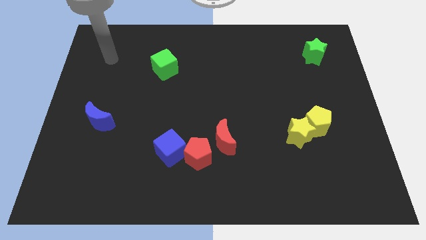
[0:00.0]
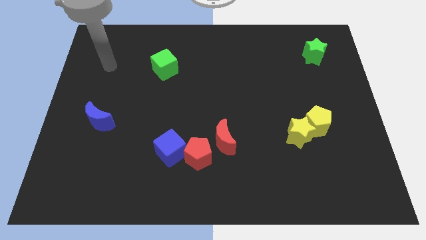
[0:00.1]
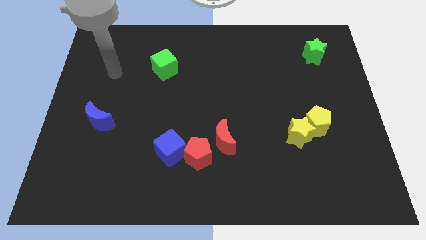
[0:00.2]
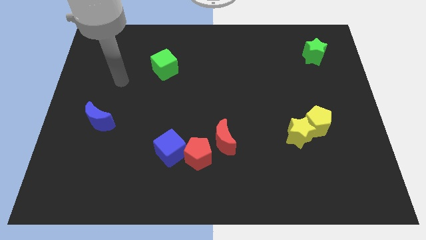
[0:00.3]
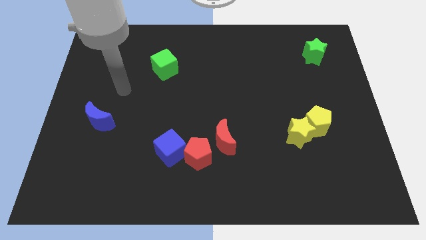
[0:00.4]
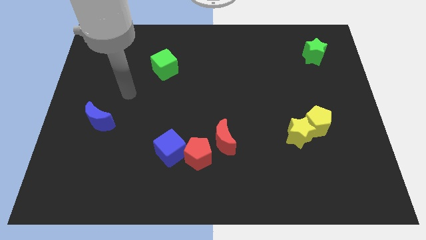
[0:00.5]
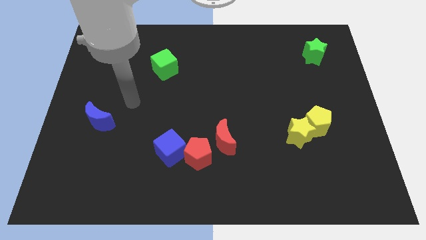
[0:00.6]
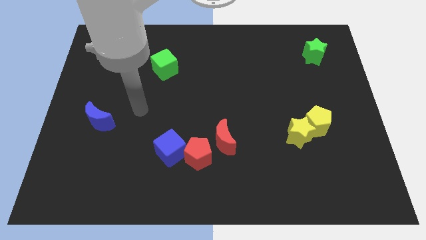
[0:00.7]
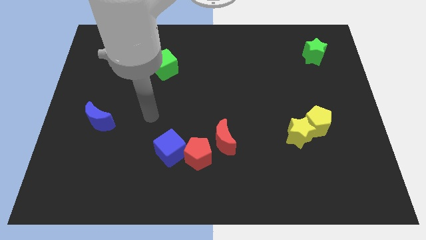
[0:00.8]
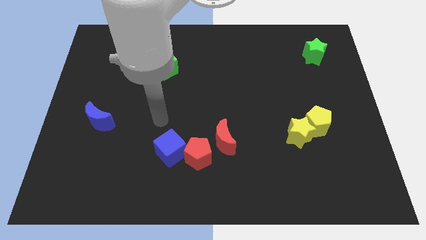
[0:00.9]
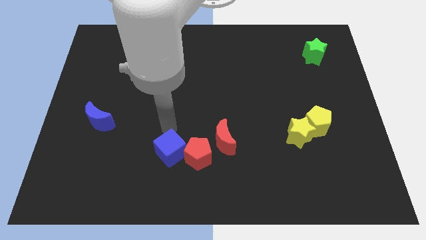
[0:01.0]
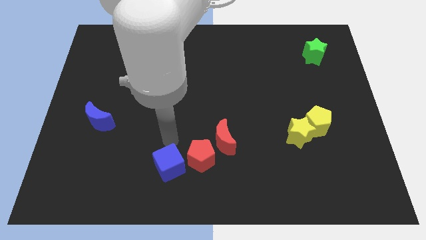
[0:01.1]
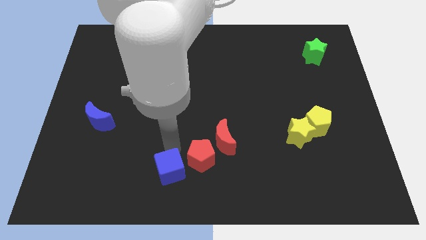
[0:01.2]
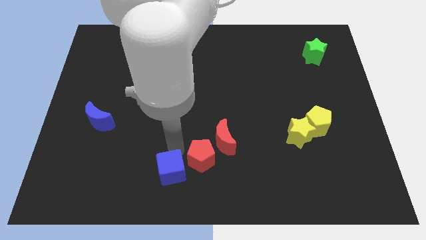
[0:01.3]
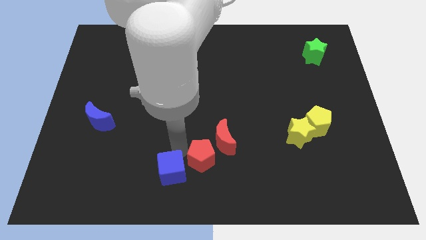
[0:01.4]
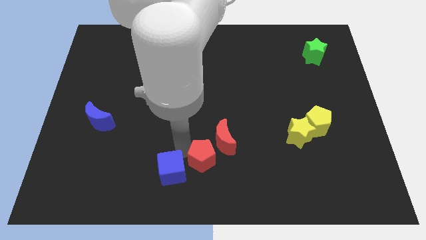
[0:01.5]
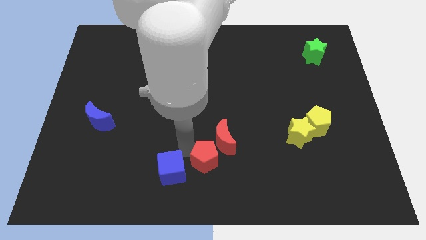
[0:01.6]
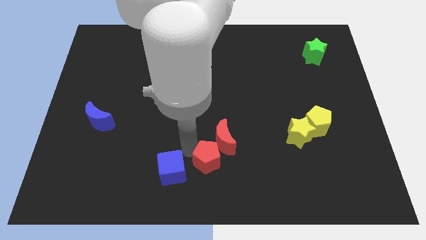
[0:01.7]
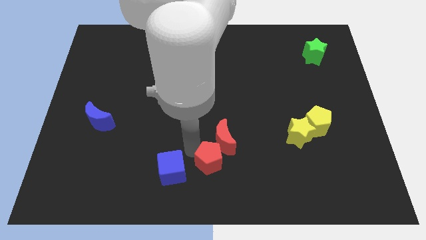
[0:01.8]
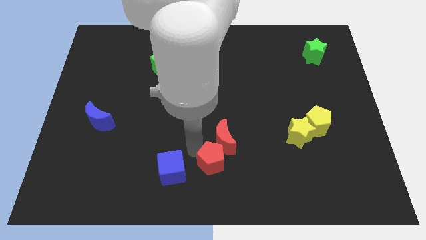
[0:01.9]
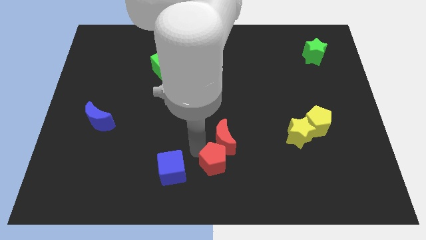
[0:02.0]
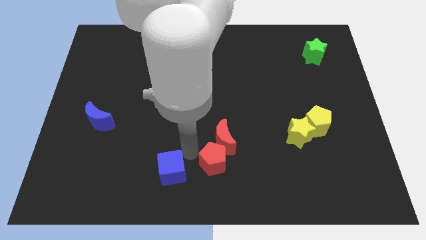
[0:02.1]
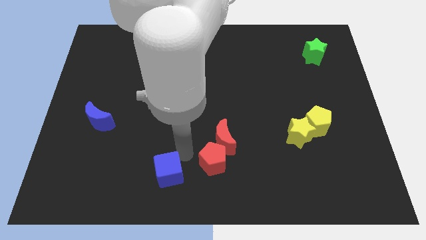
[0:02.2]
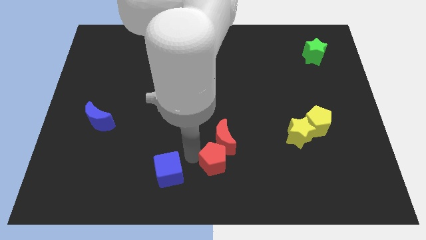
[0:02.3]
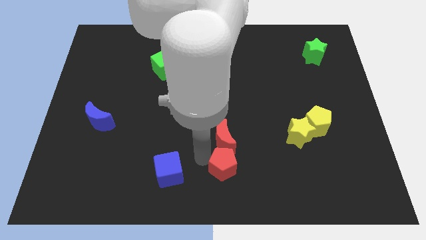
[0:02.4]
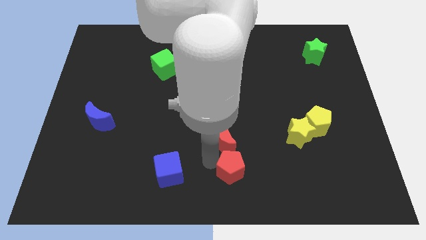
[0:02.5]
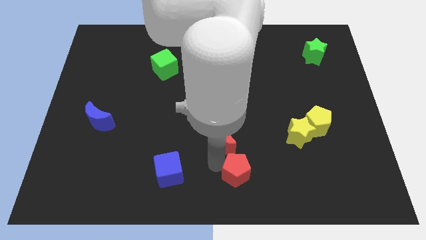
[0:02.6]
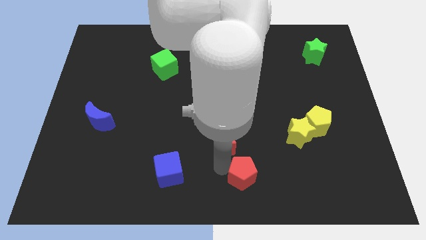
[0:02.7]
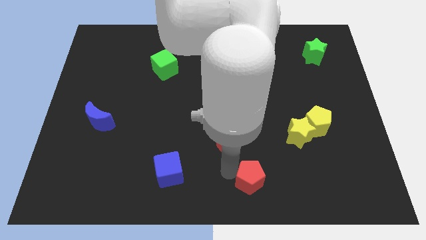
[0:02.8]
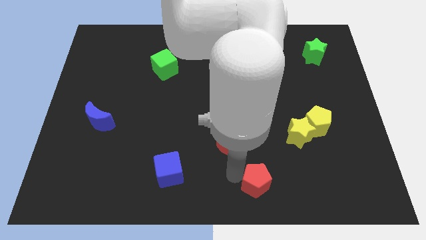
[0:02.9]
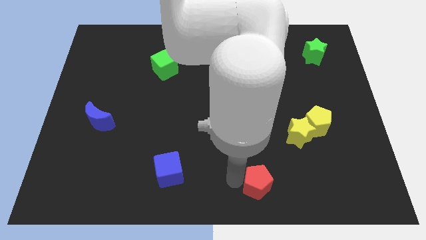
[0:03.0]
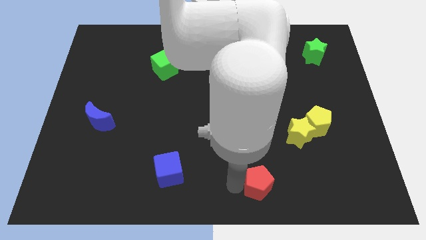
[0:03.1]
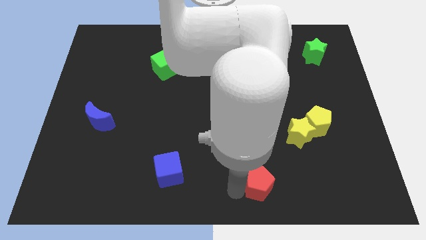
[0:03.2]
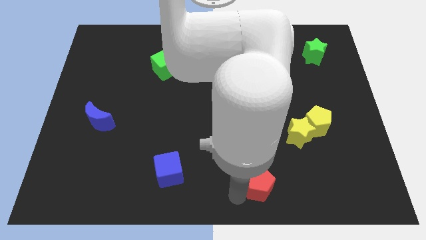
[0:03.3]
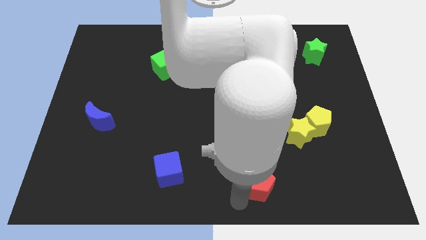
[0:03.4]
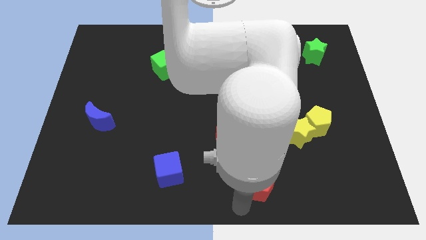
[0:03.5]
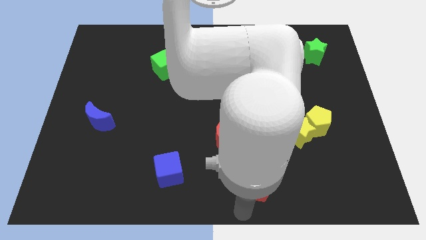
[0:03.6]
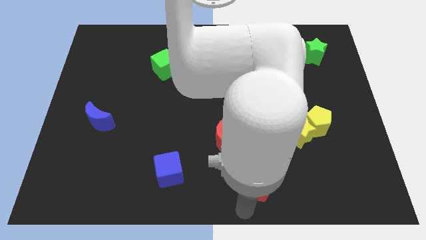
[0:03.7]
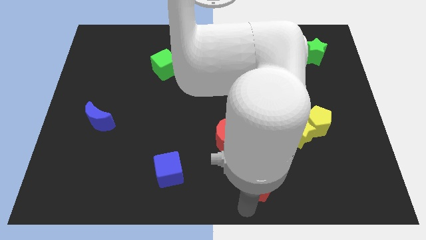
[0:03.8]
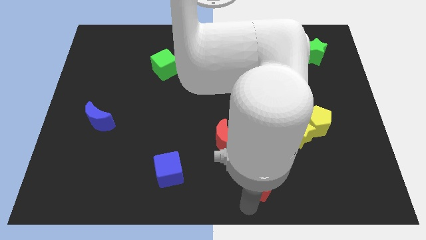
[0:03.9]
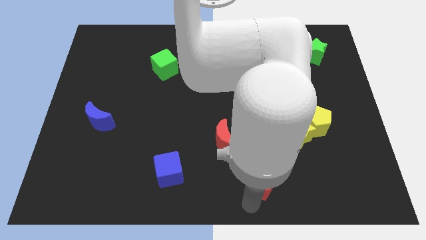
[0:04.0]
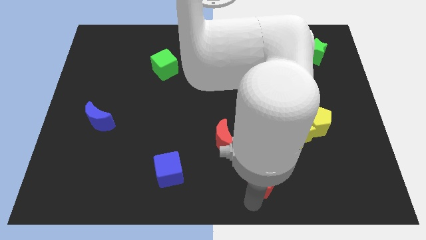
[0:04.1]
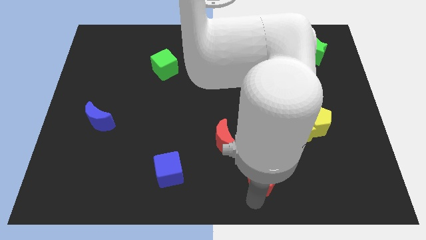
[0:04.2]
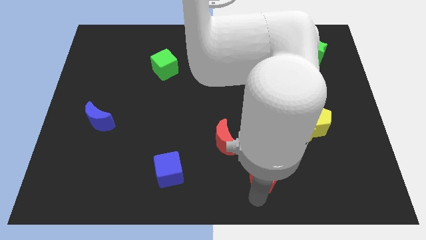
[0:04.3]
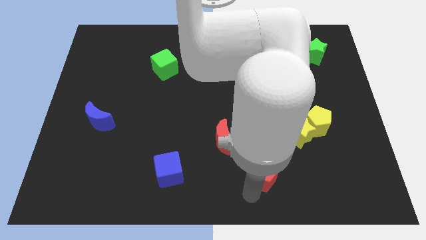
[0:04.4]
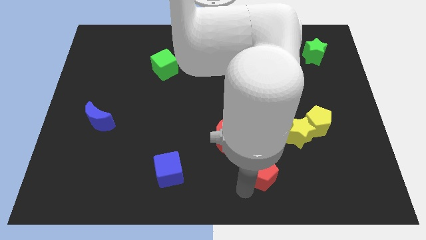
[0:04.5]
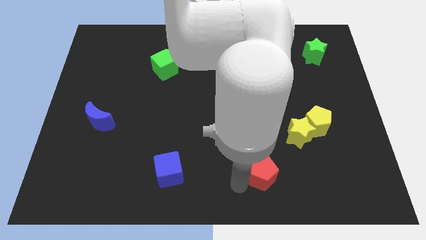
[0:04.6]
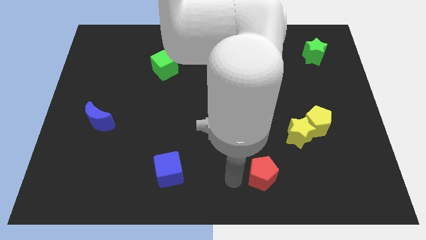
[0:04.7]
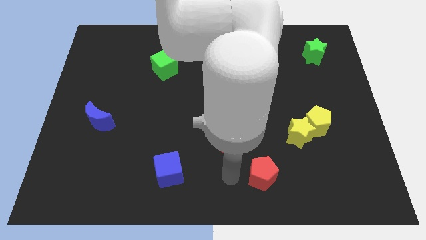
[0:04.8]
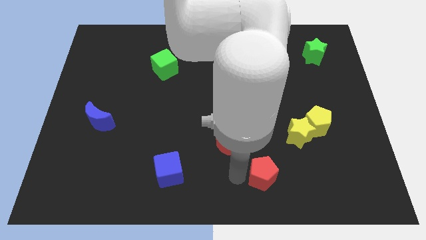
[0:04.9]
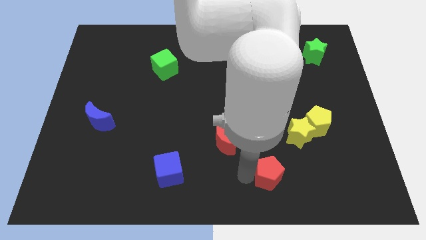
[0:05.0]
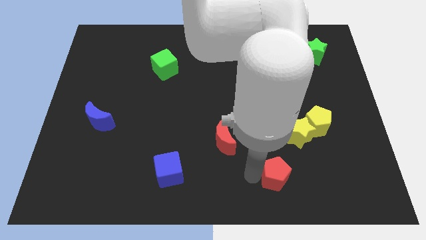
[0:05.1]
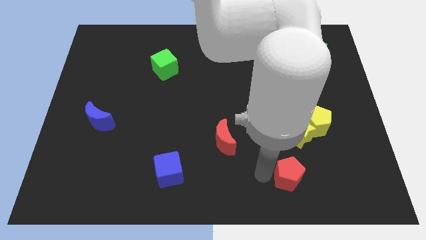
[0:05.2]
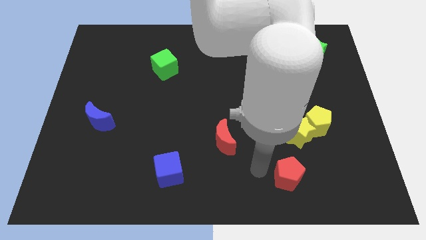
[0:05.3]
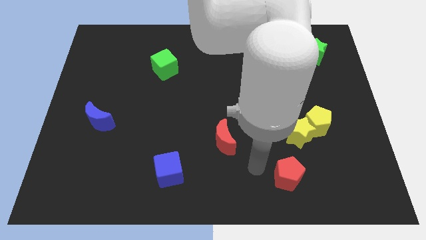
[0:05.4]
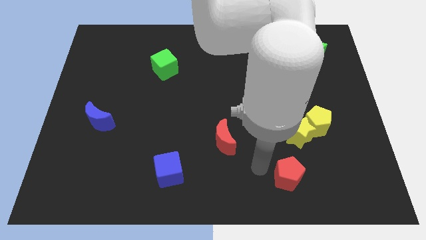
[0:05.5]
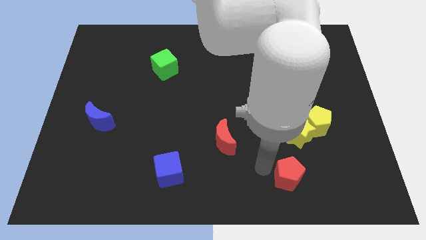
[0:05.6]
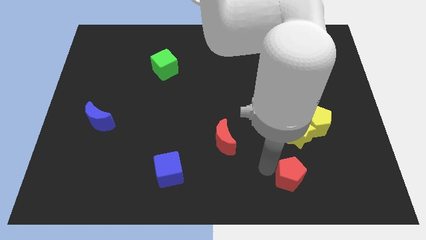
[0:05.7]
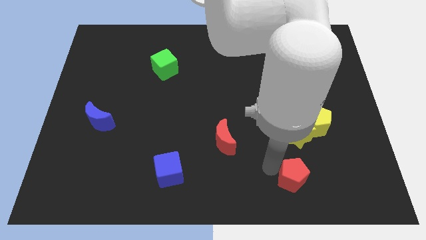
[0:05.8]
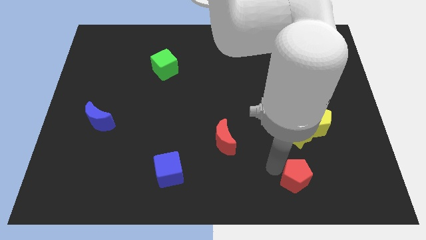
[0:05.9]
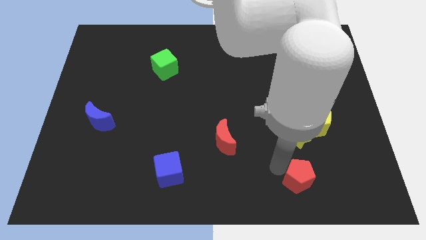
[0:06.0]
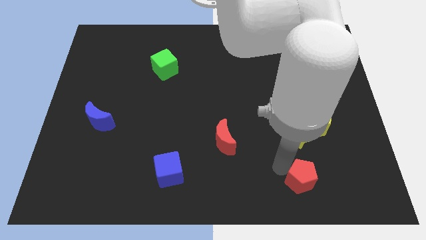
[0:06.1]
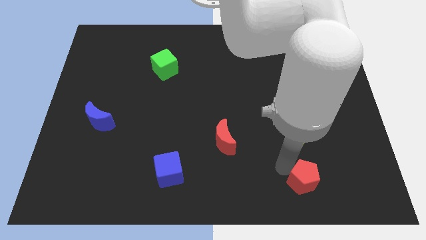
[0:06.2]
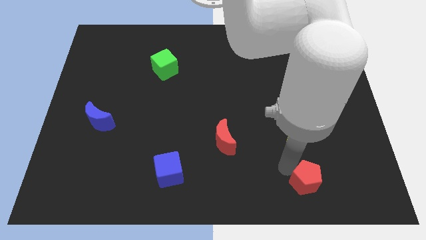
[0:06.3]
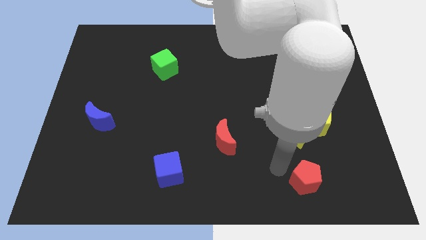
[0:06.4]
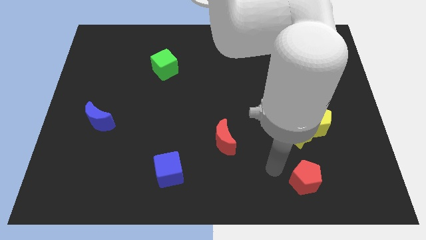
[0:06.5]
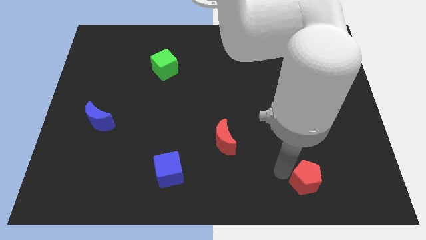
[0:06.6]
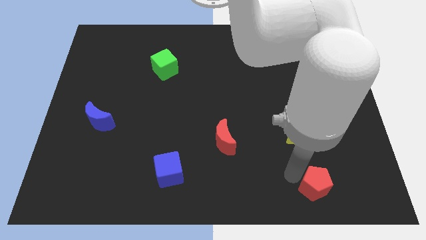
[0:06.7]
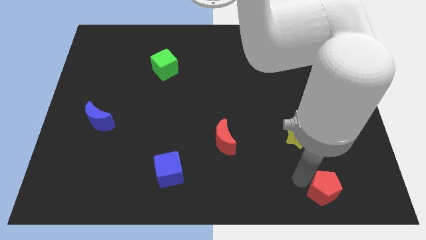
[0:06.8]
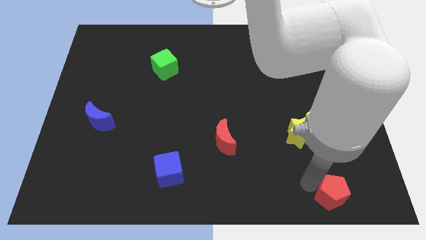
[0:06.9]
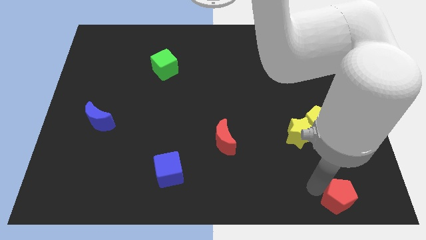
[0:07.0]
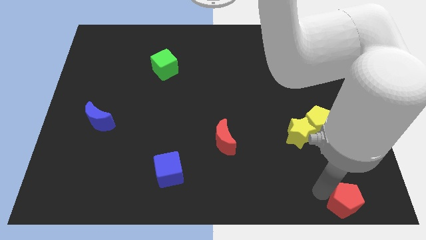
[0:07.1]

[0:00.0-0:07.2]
push the red pentagon to the lower right corner
